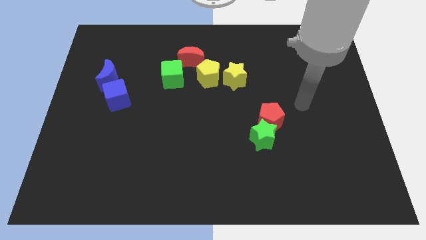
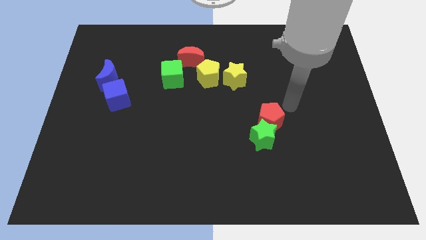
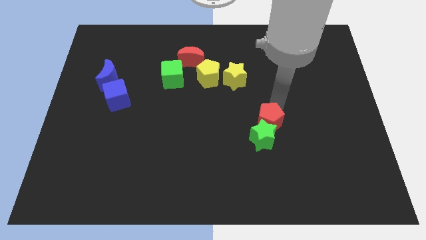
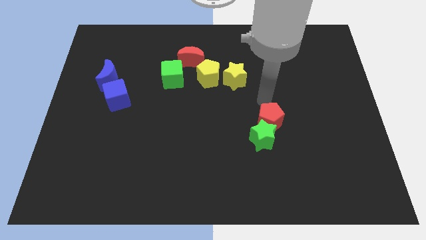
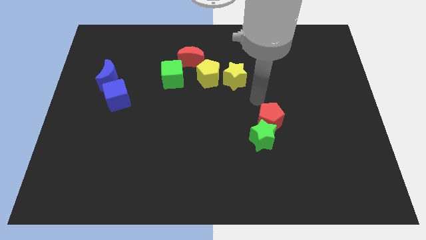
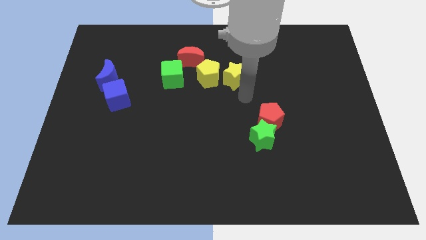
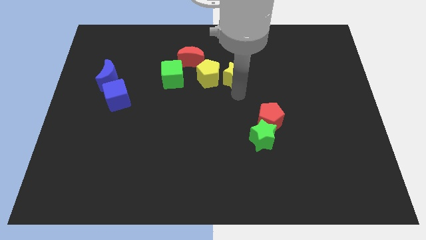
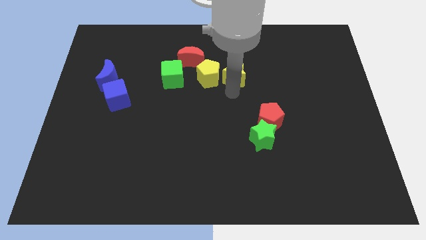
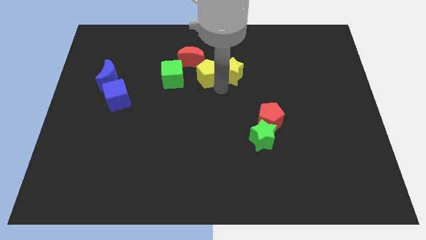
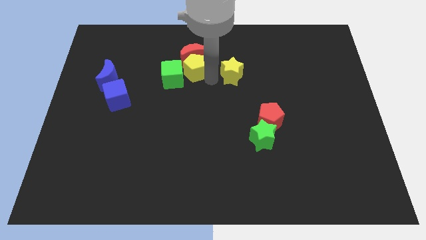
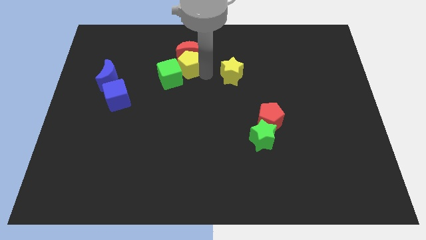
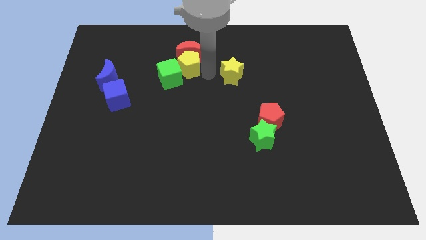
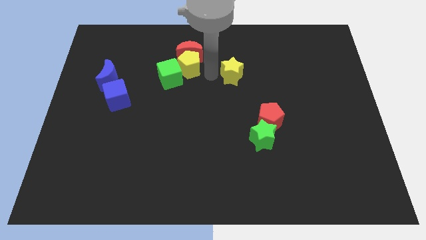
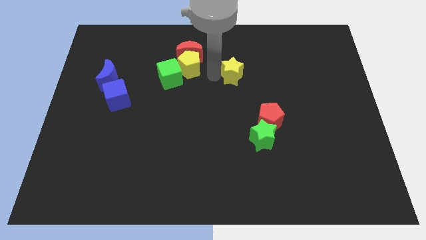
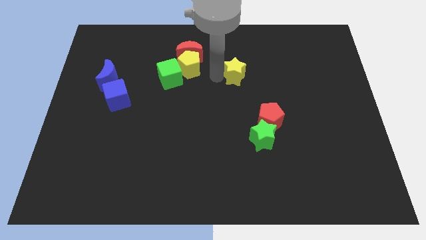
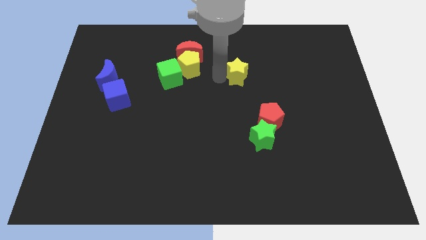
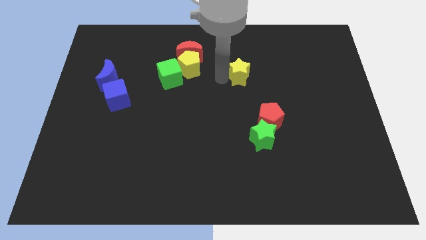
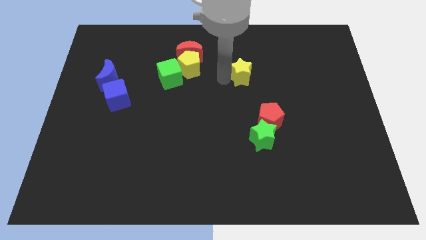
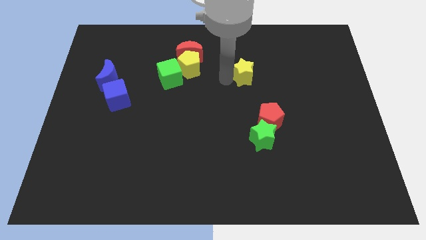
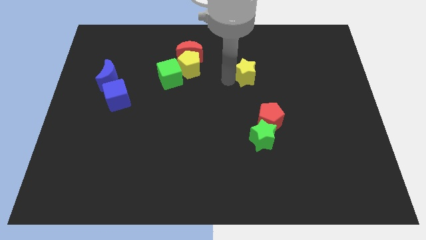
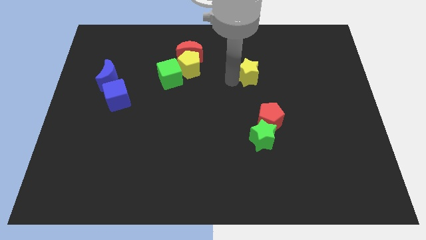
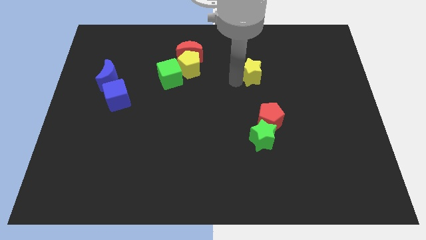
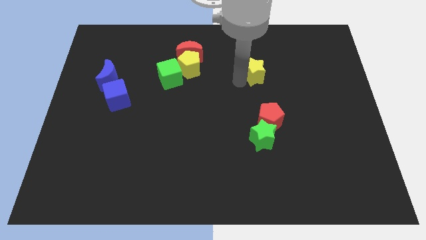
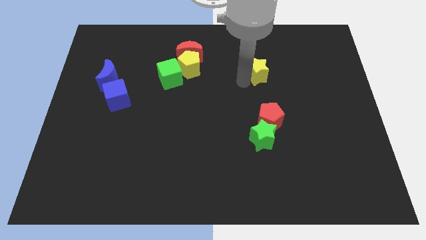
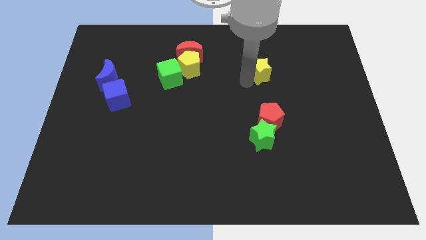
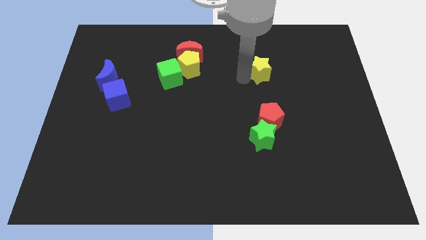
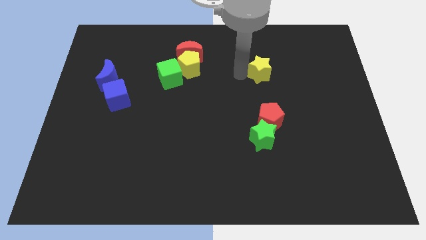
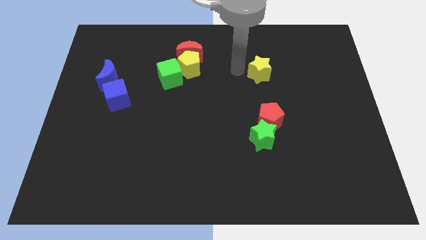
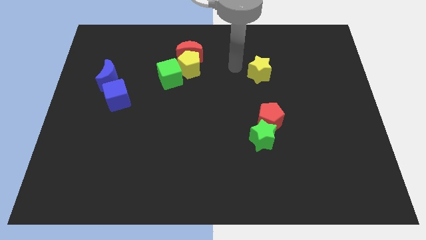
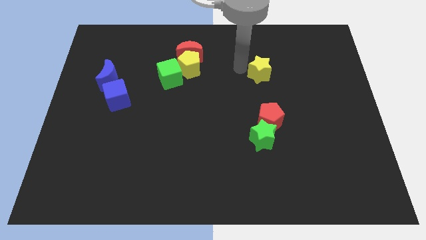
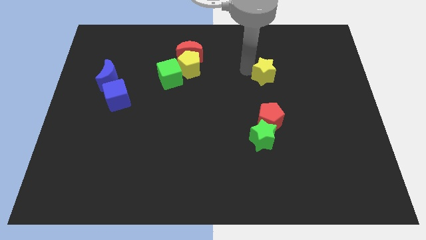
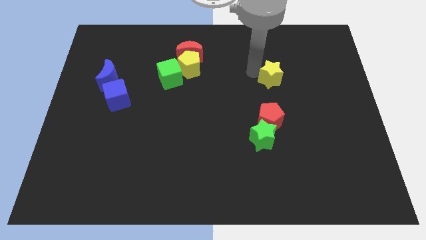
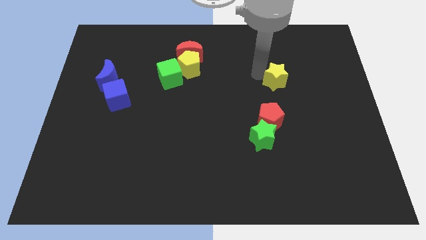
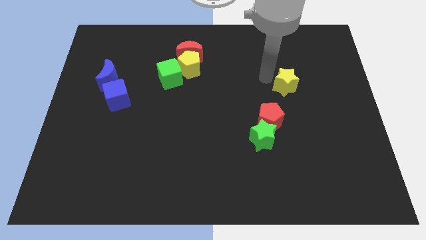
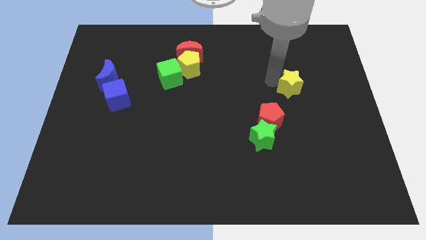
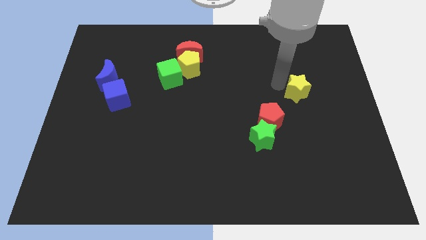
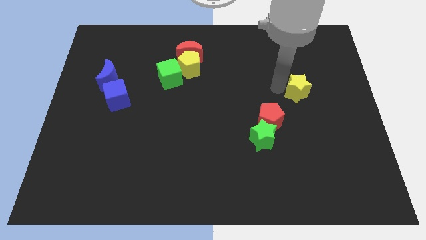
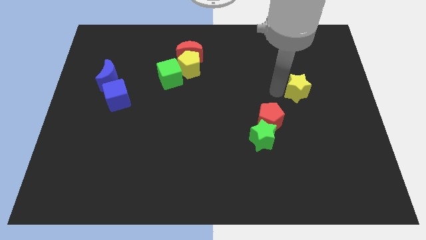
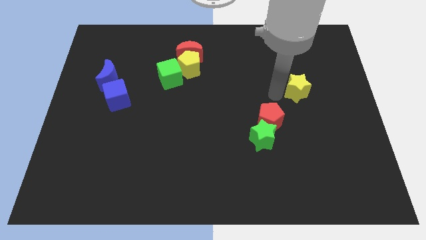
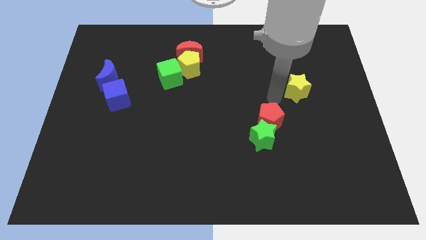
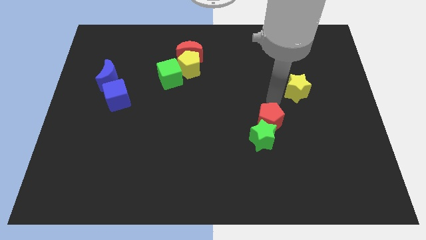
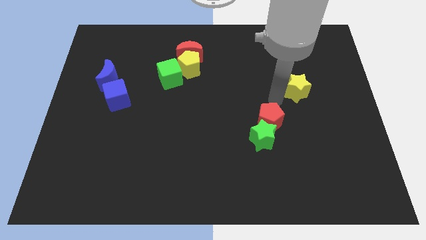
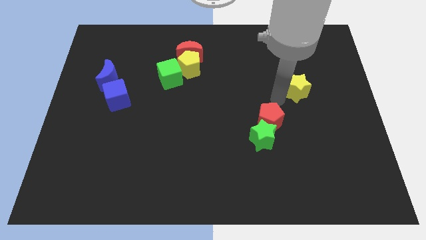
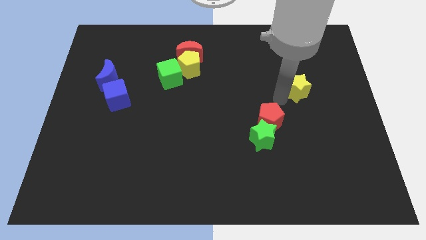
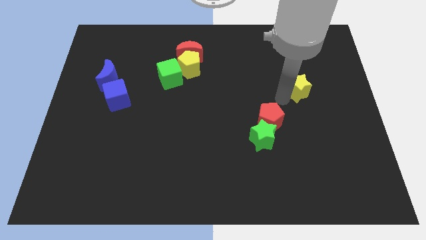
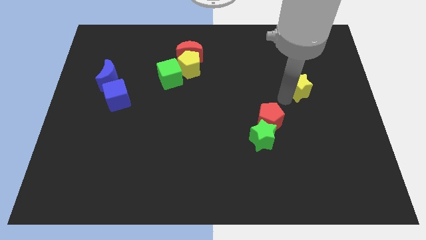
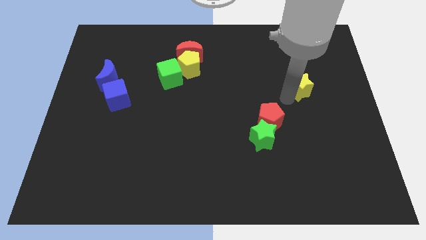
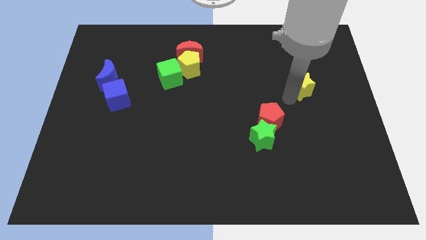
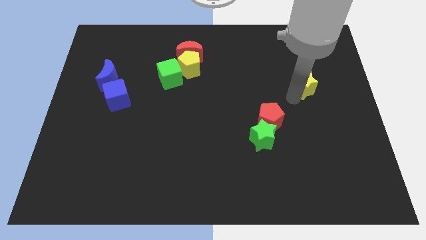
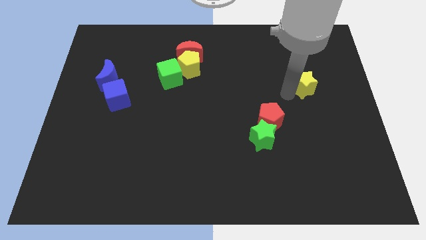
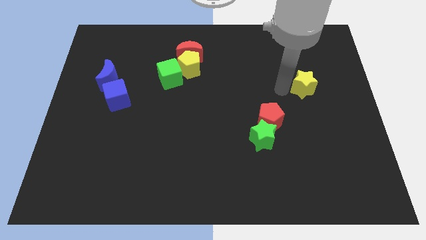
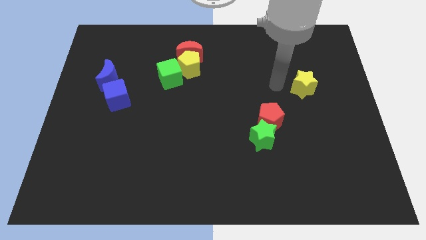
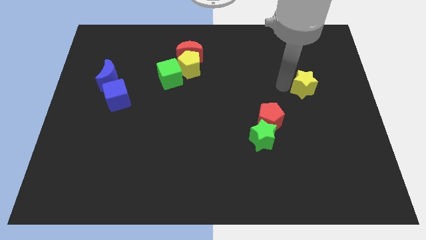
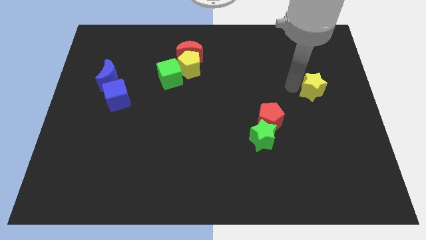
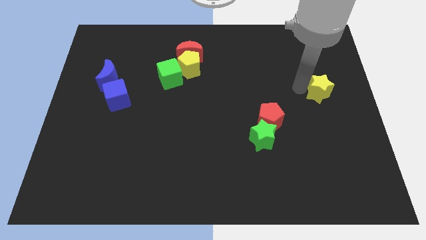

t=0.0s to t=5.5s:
put the yellow star to the right side of the board

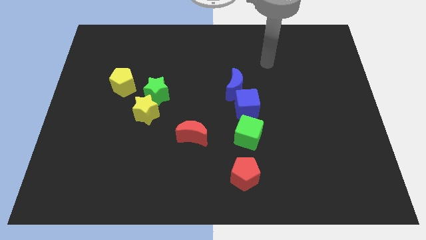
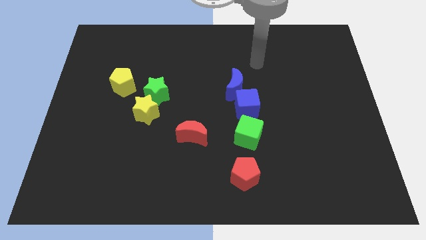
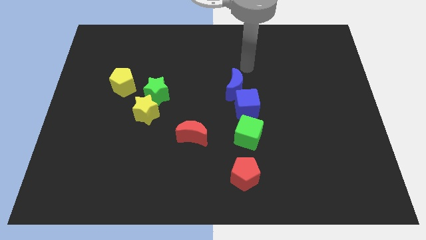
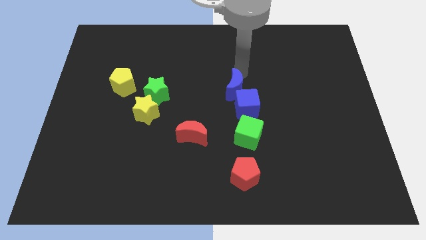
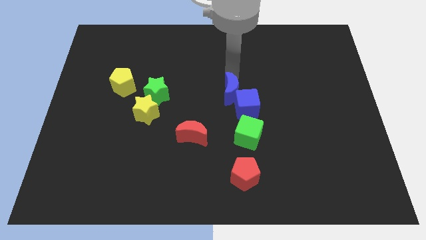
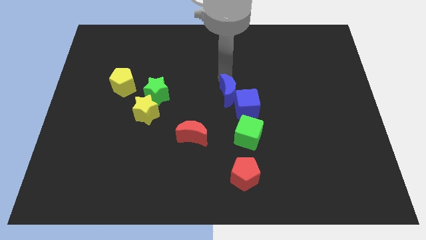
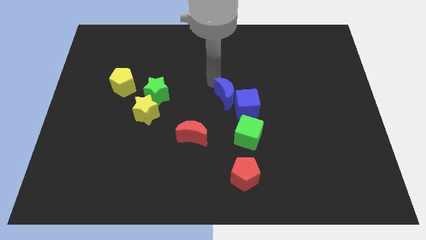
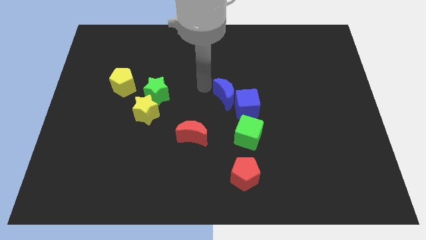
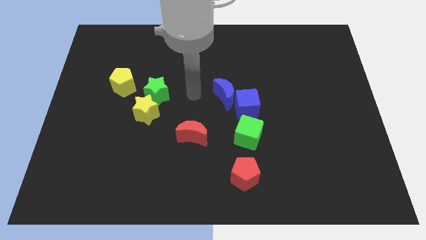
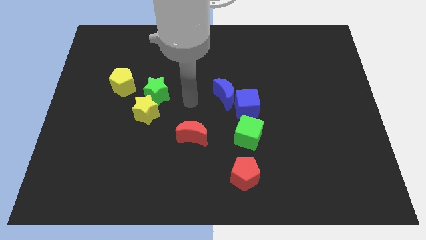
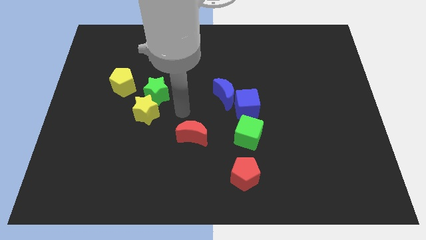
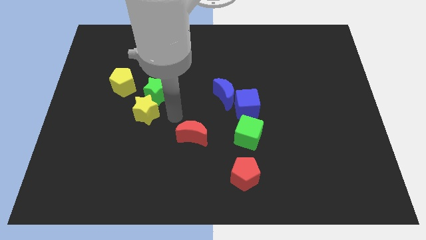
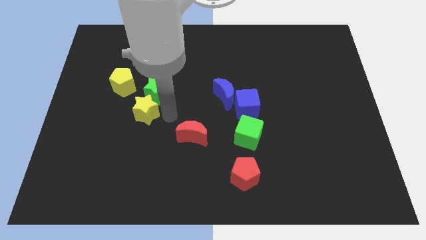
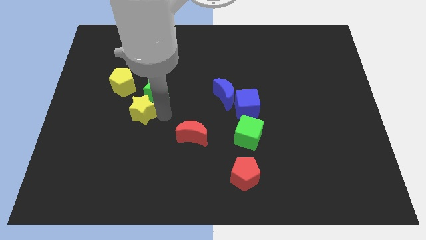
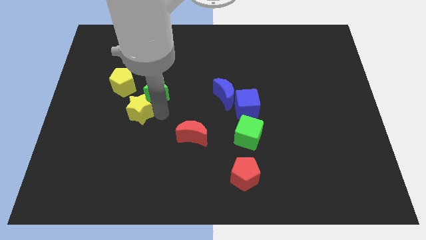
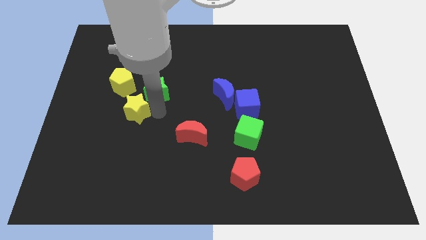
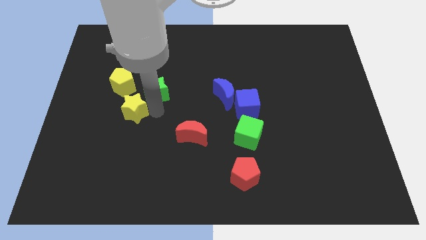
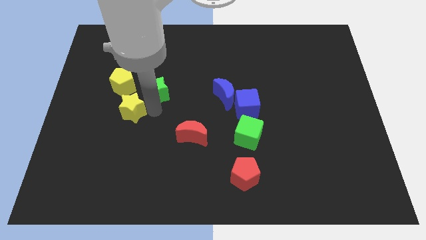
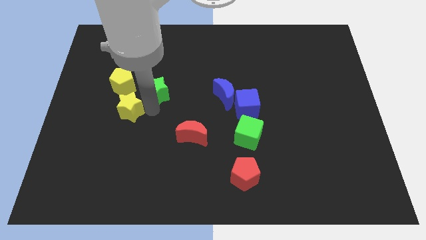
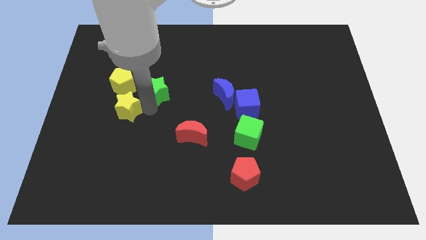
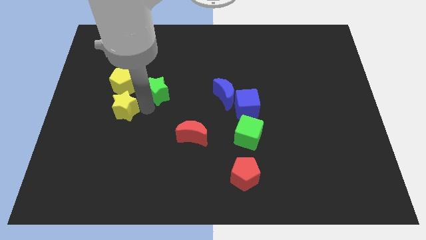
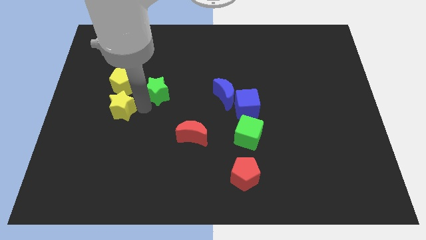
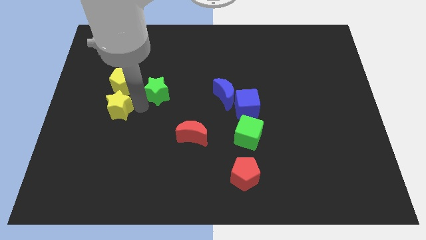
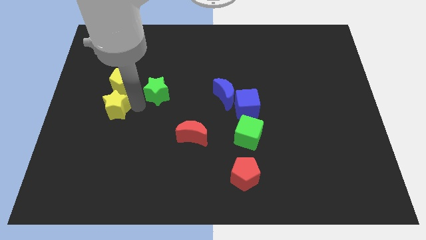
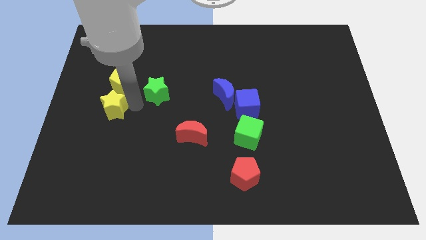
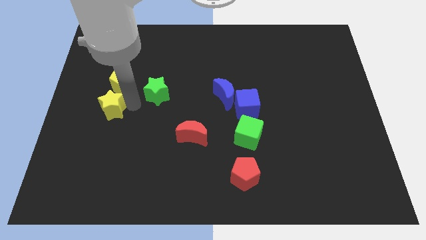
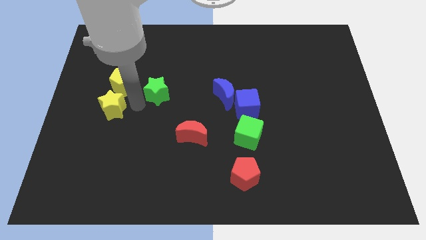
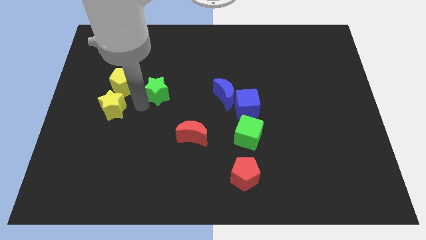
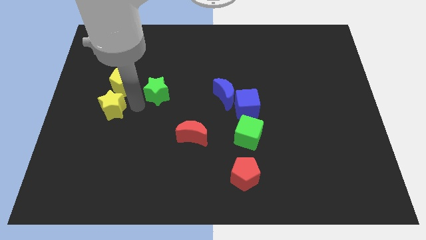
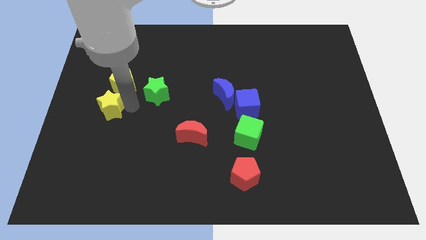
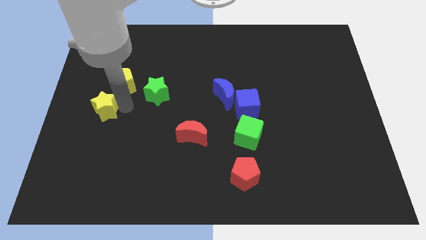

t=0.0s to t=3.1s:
push the yellow star to the center left
